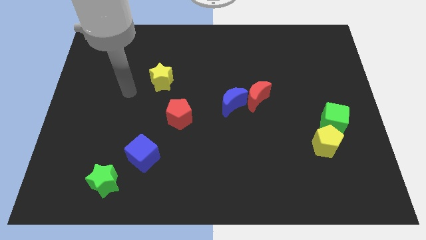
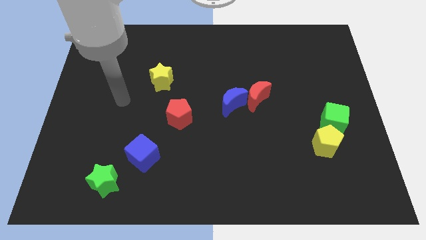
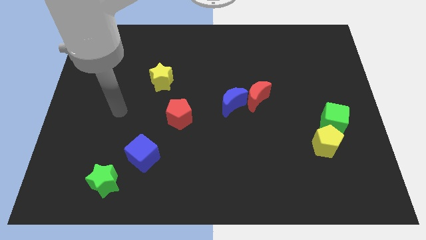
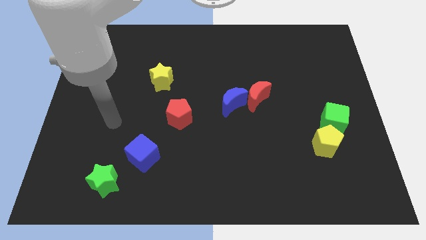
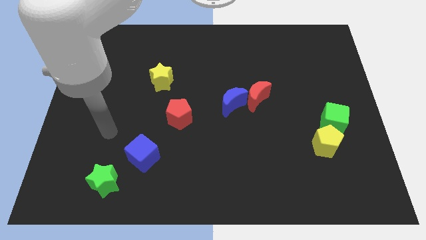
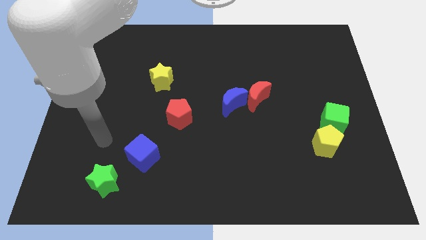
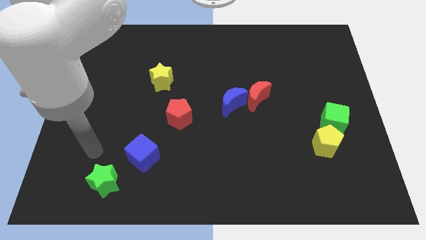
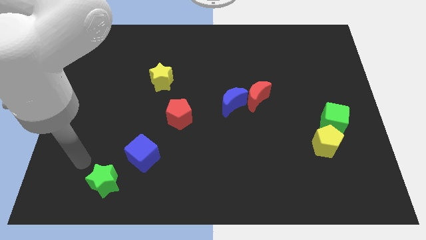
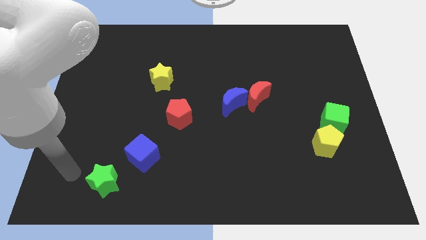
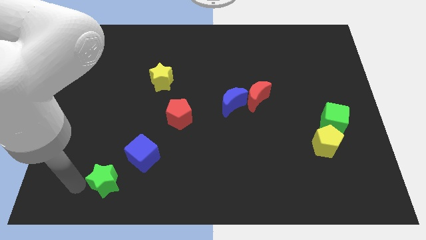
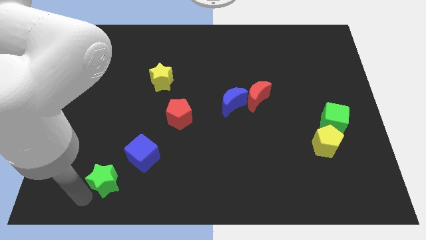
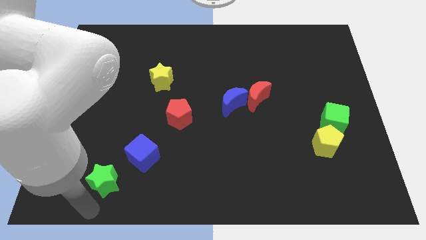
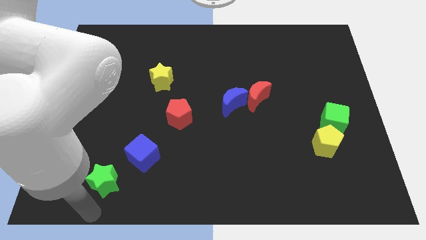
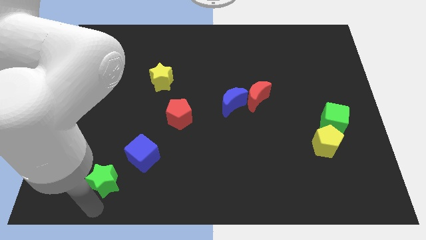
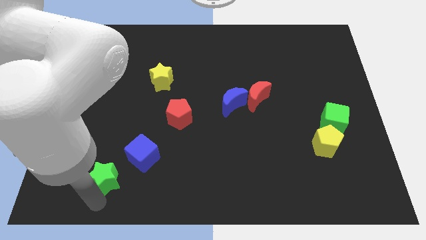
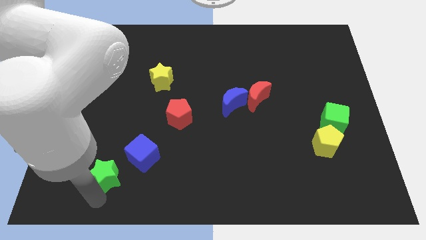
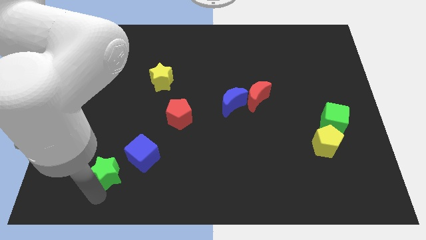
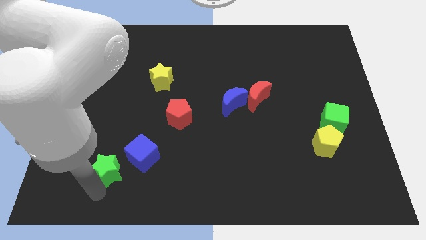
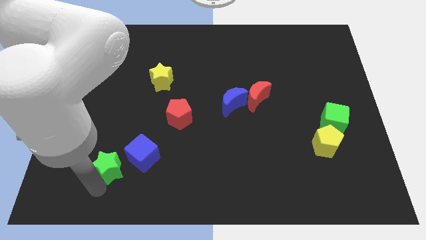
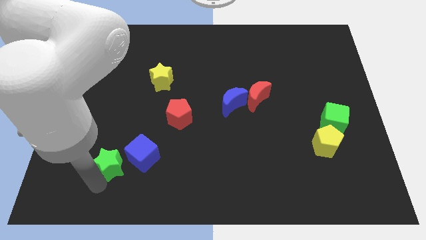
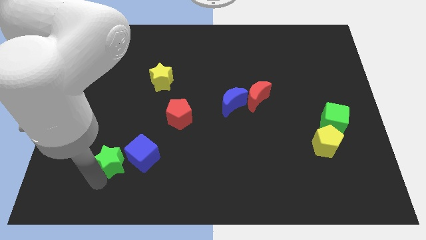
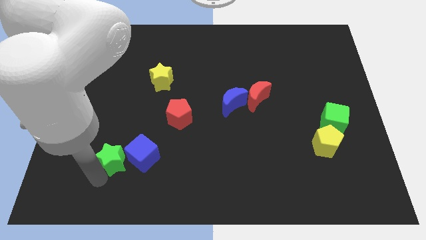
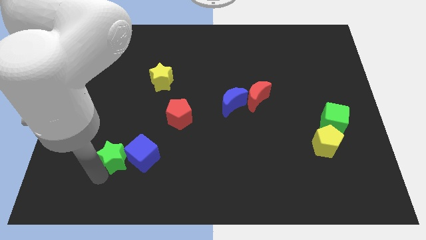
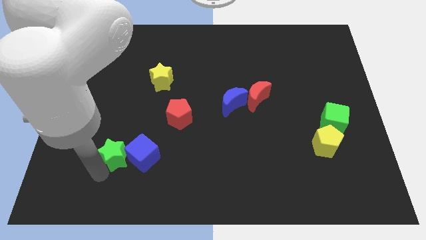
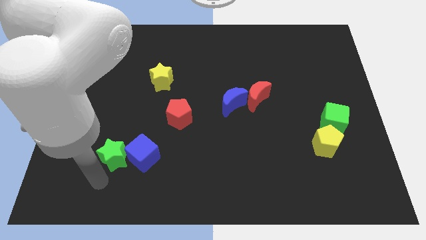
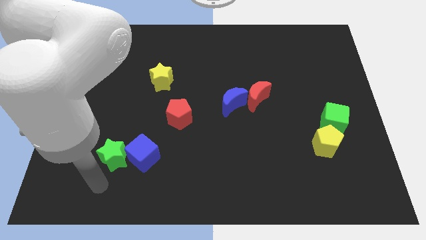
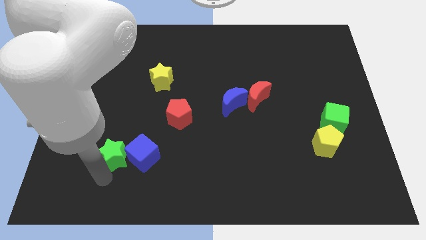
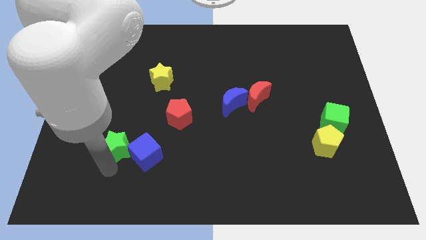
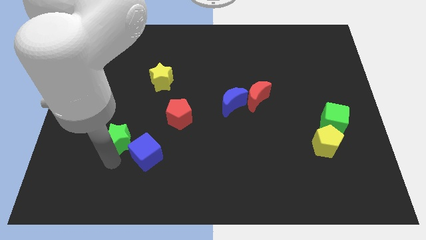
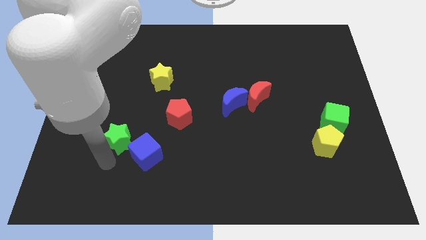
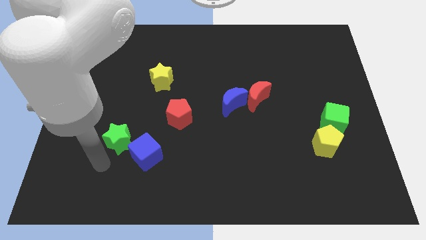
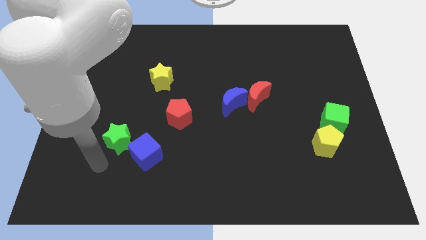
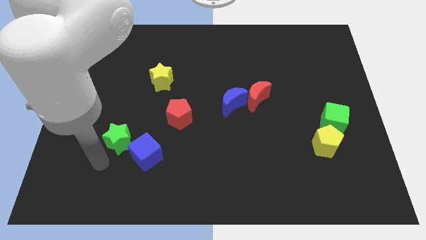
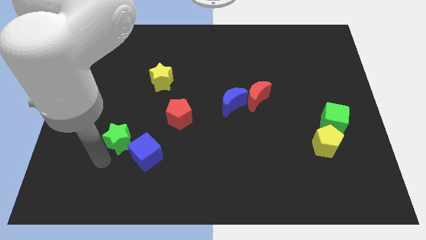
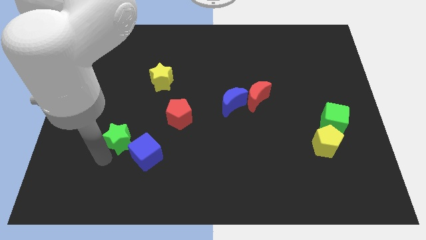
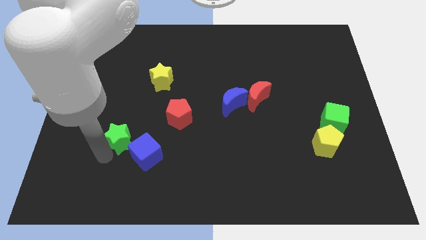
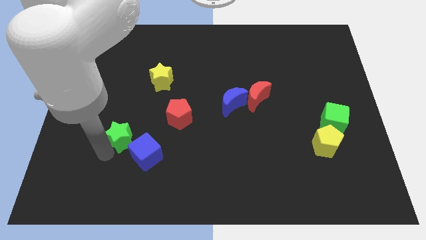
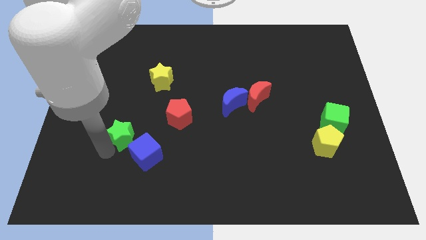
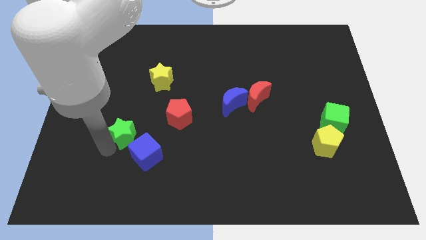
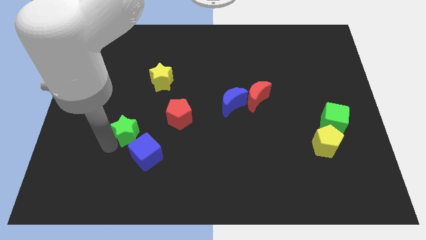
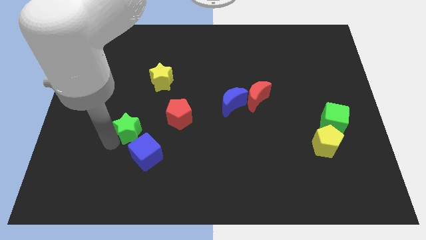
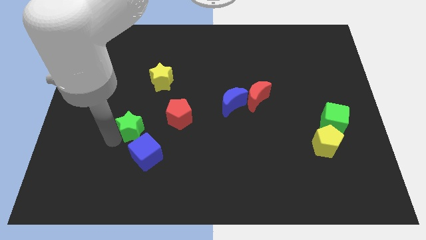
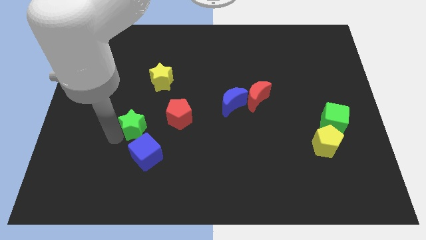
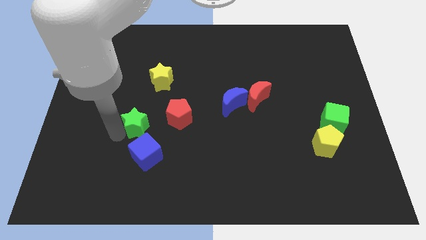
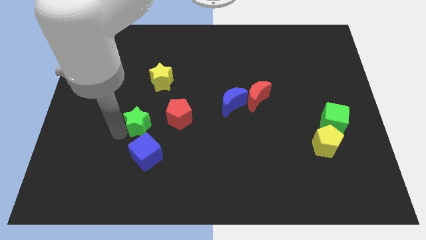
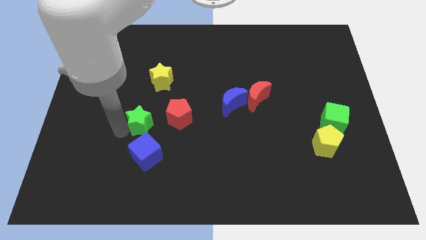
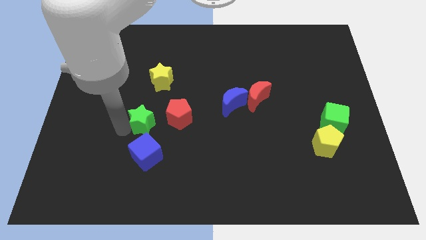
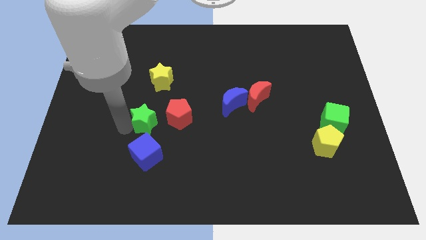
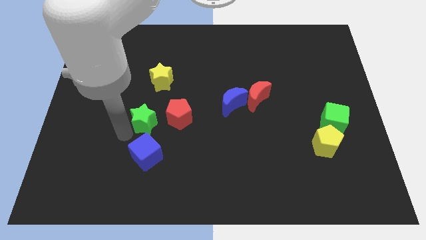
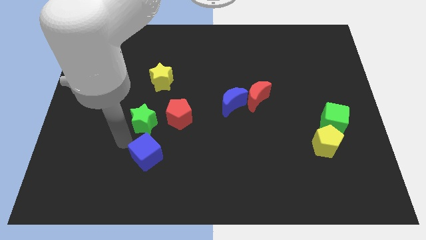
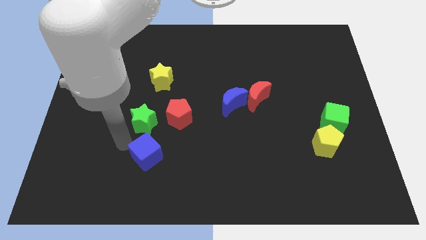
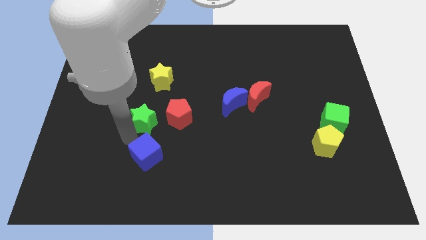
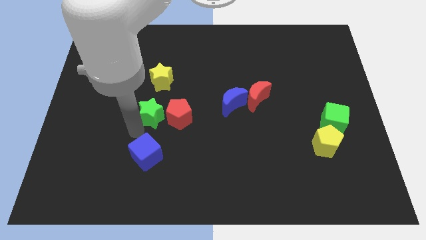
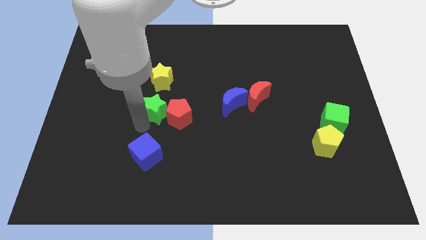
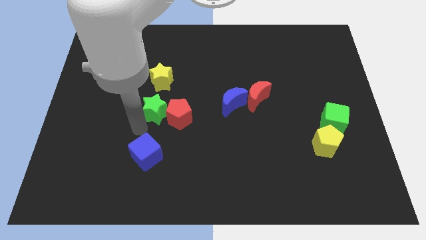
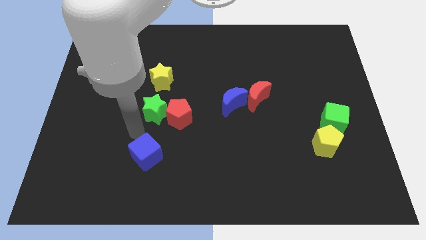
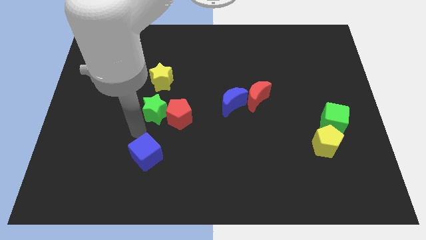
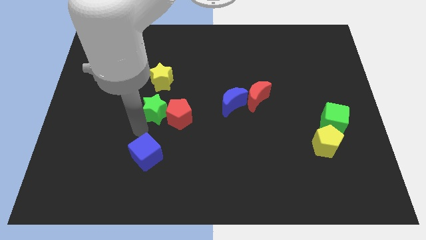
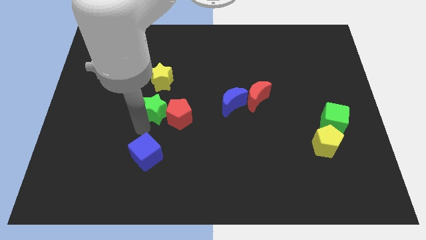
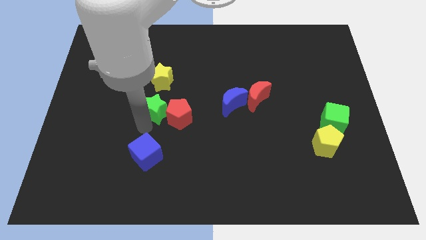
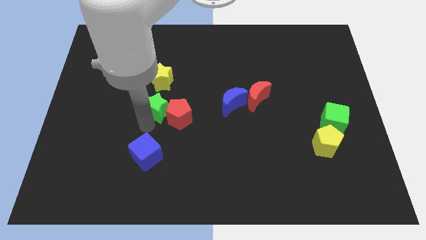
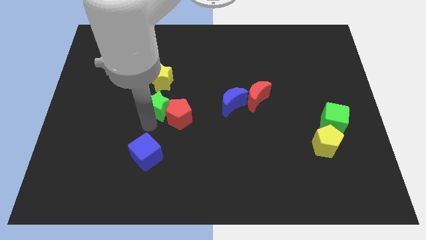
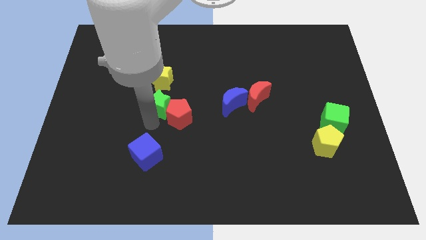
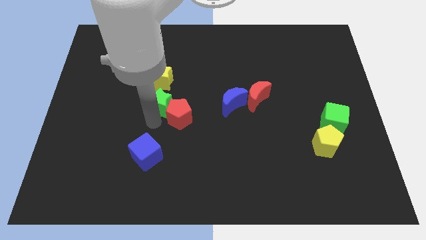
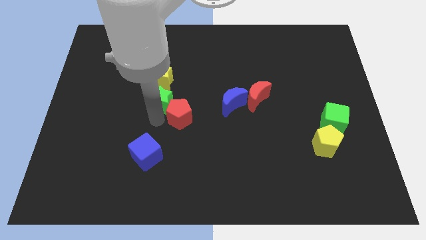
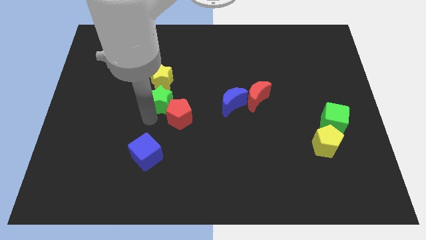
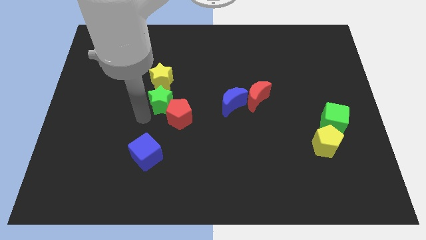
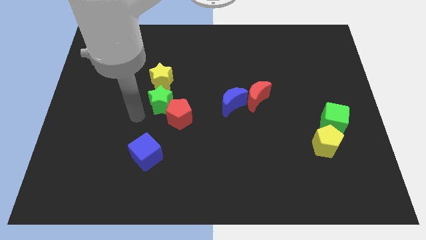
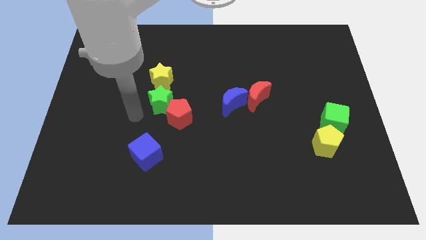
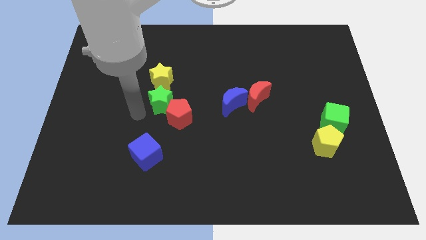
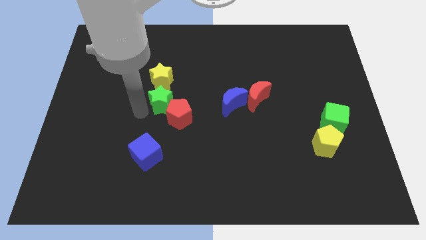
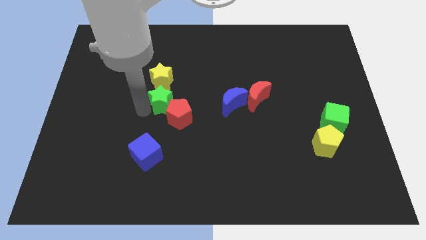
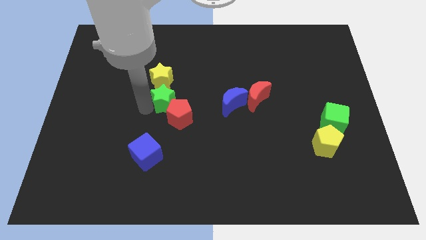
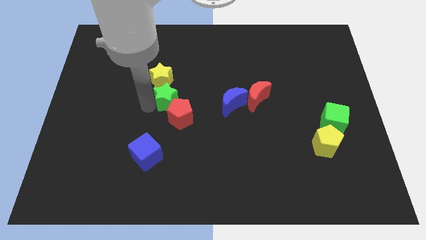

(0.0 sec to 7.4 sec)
slide the green star upwards and right

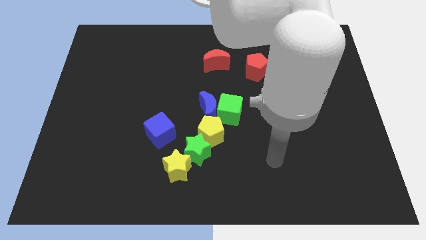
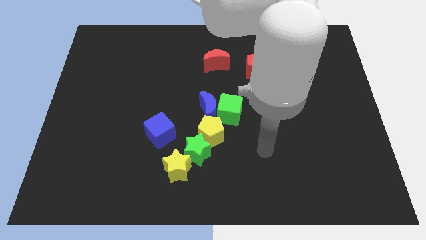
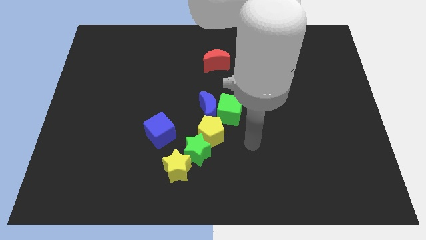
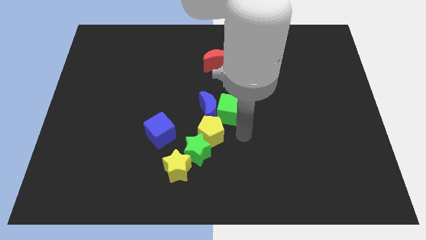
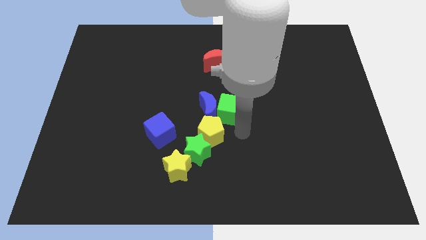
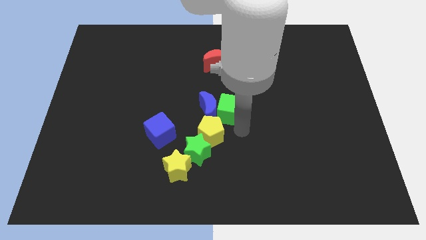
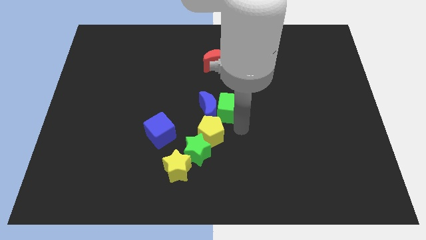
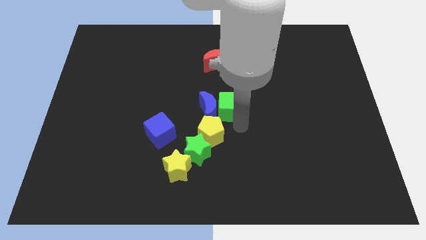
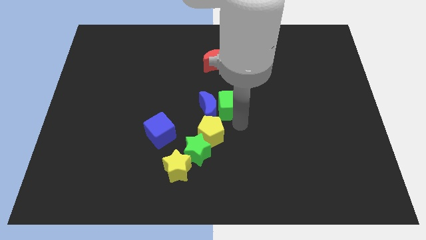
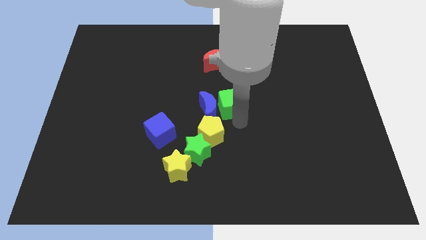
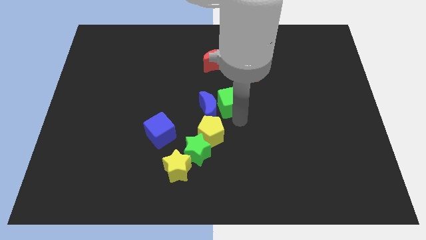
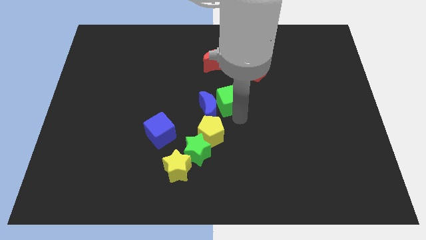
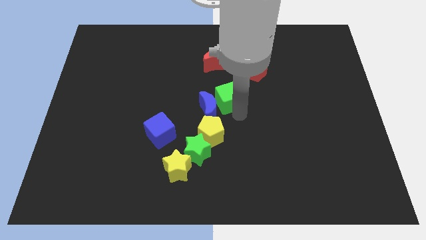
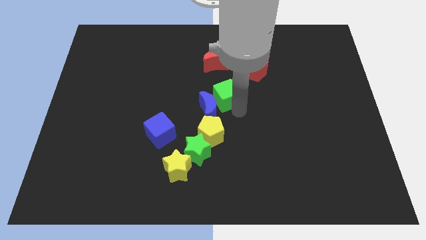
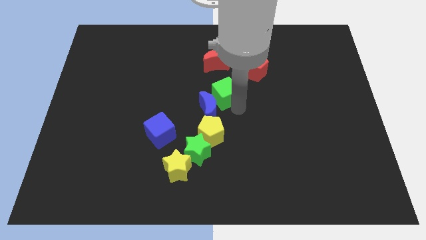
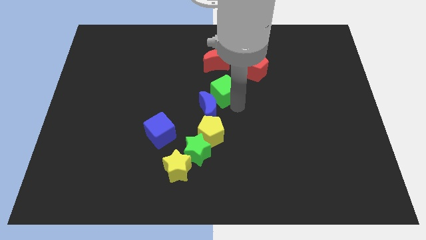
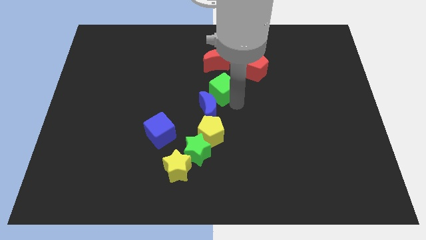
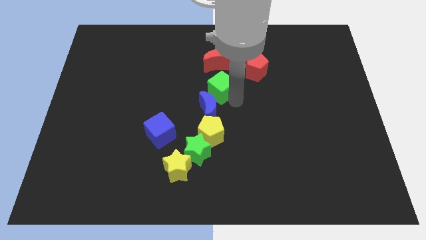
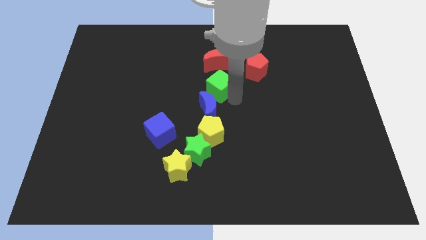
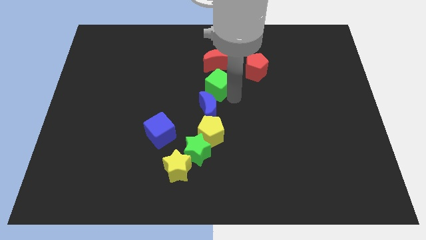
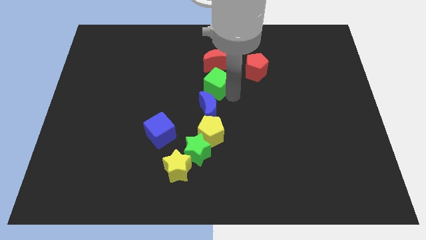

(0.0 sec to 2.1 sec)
push the green cube up and left a little
